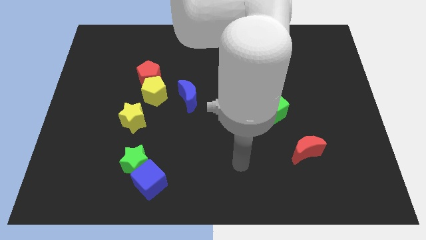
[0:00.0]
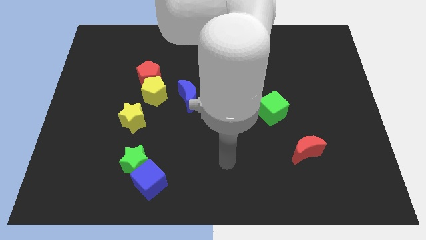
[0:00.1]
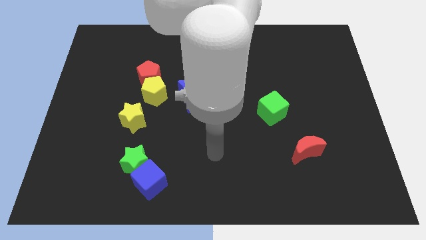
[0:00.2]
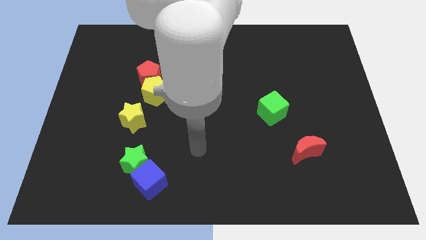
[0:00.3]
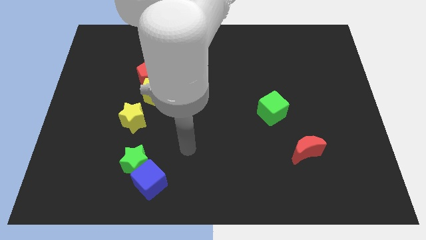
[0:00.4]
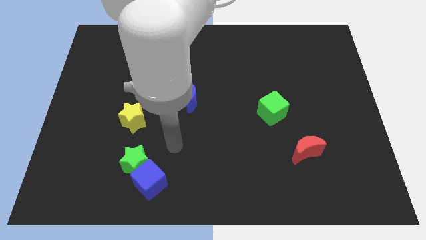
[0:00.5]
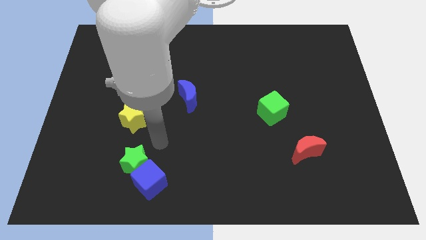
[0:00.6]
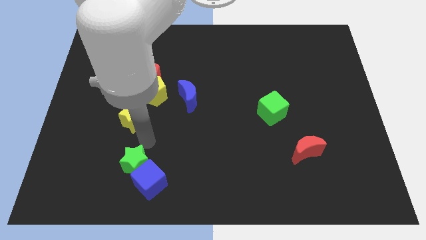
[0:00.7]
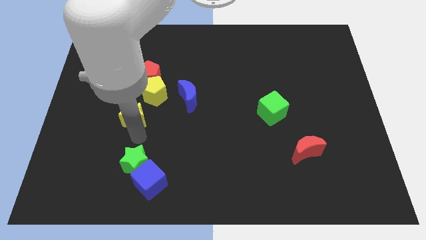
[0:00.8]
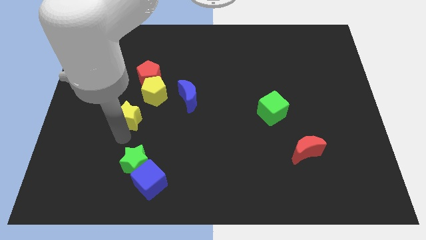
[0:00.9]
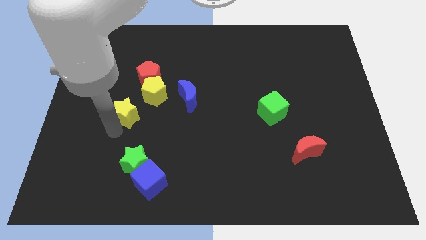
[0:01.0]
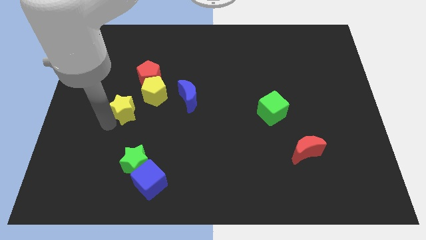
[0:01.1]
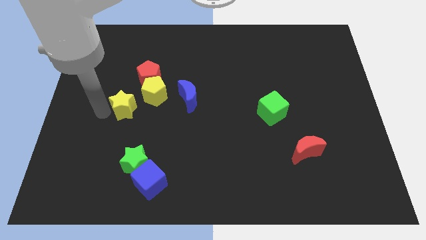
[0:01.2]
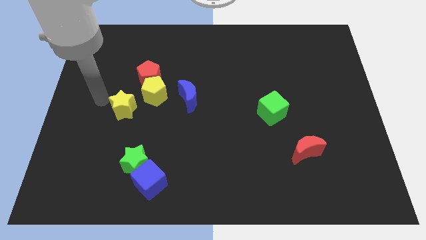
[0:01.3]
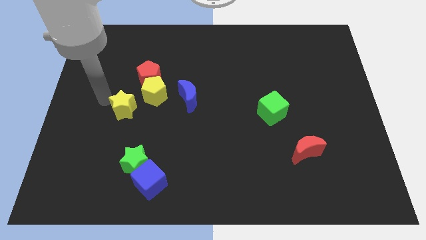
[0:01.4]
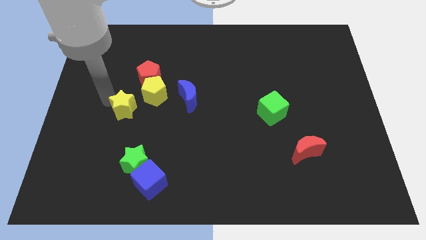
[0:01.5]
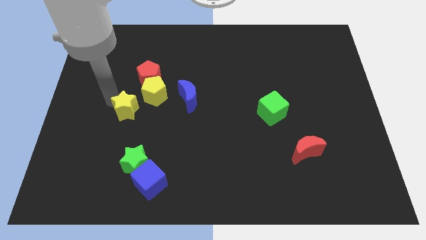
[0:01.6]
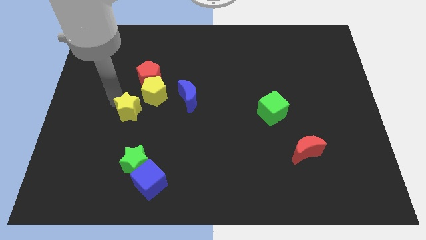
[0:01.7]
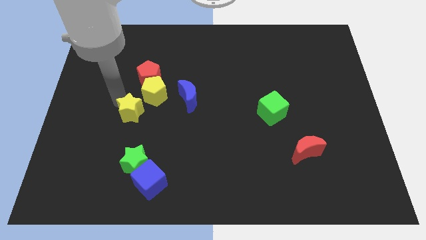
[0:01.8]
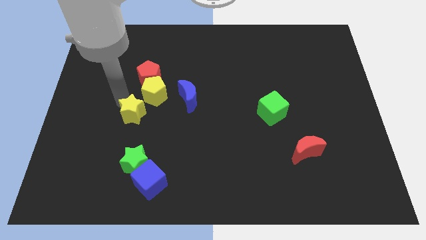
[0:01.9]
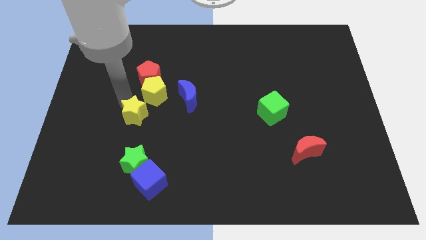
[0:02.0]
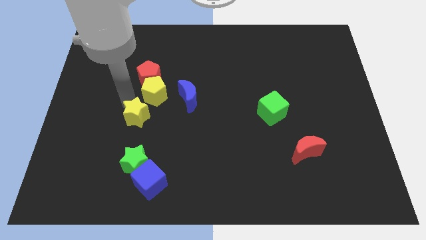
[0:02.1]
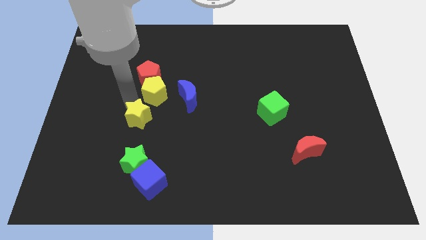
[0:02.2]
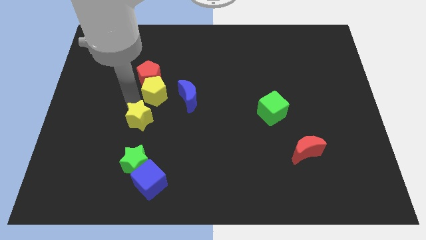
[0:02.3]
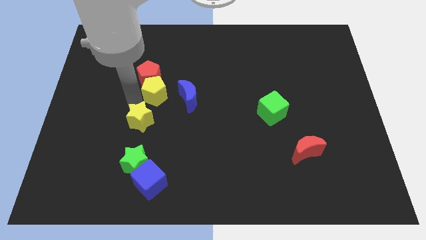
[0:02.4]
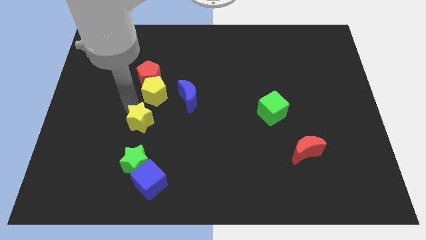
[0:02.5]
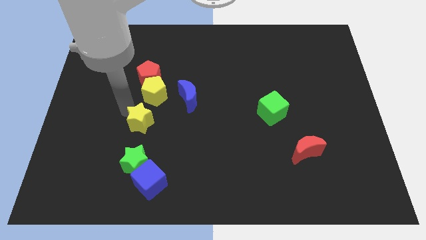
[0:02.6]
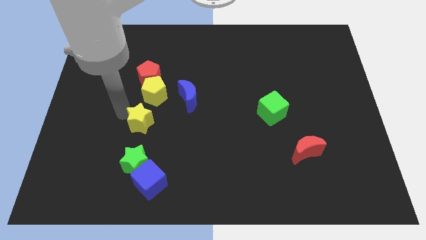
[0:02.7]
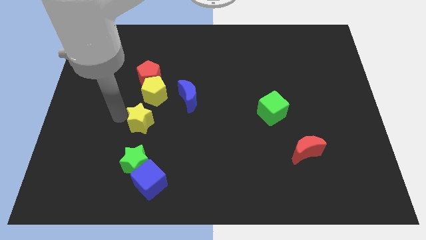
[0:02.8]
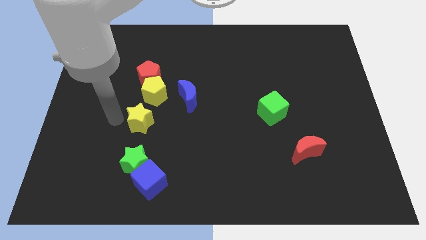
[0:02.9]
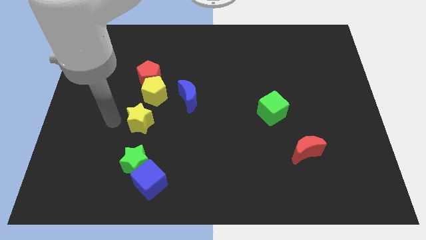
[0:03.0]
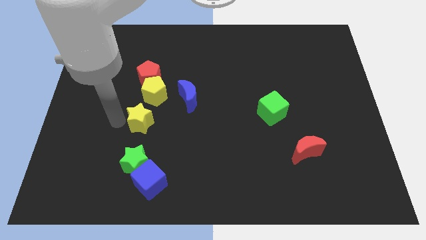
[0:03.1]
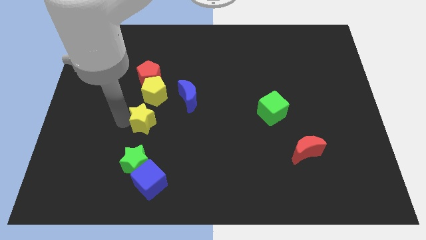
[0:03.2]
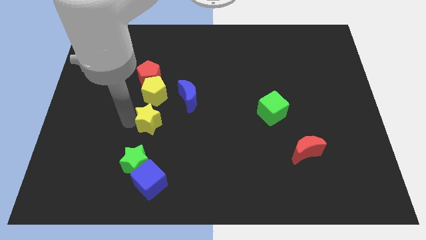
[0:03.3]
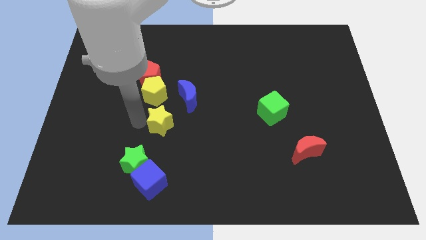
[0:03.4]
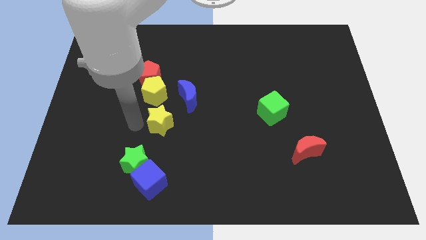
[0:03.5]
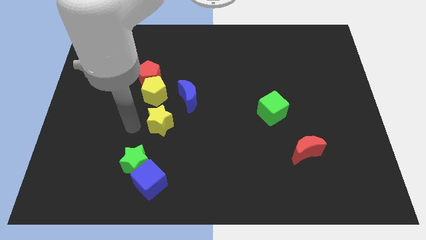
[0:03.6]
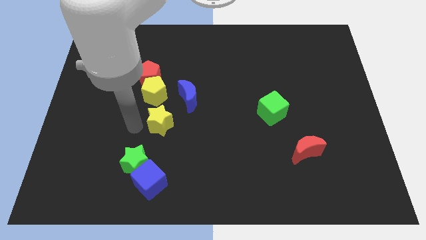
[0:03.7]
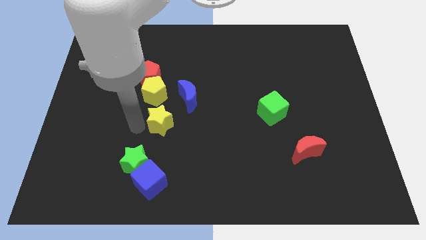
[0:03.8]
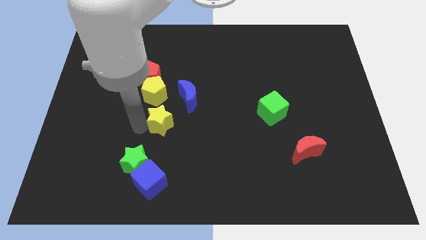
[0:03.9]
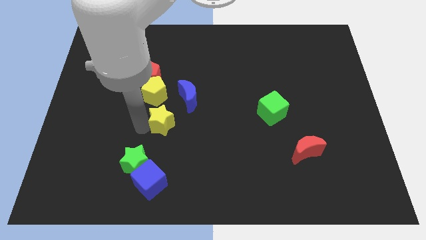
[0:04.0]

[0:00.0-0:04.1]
move the yellow star to the right a bit

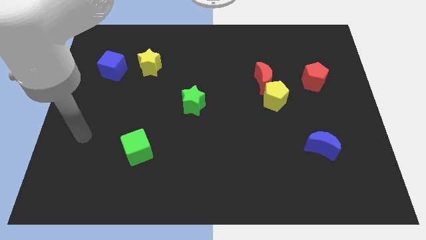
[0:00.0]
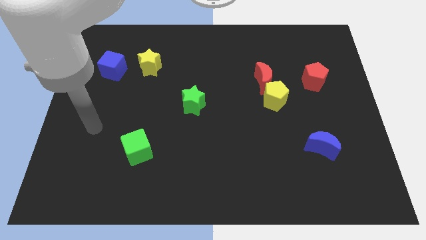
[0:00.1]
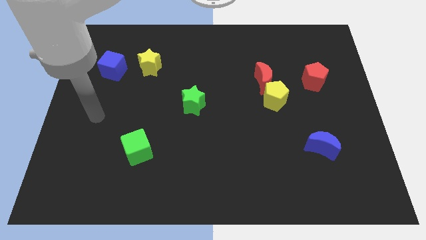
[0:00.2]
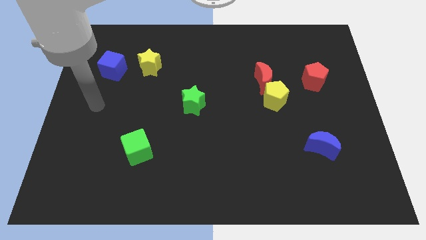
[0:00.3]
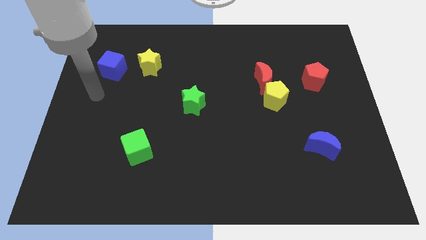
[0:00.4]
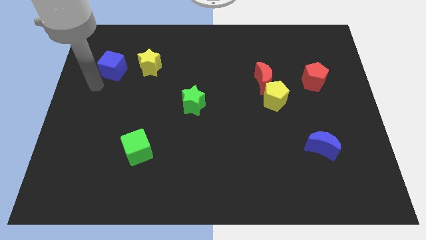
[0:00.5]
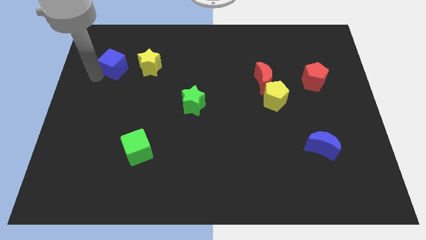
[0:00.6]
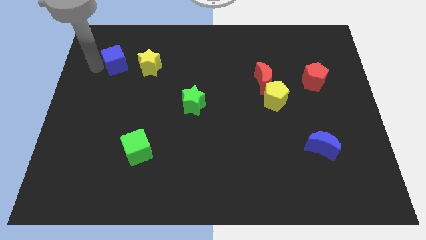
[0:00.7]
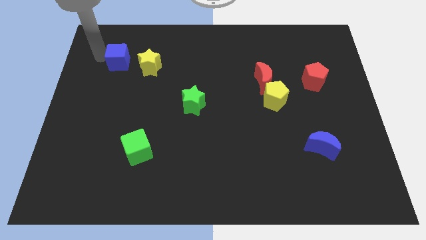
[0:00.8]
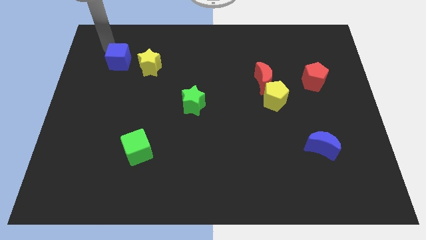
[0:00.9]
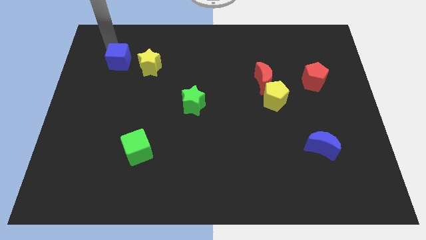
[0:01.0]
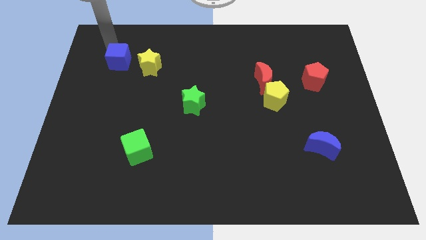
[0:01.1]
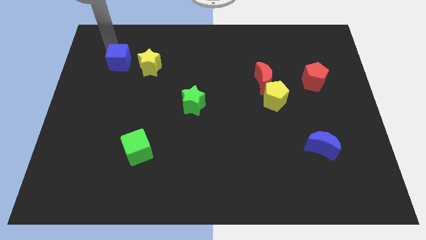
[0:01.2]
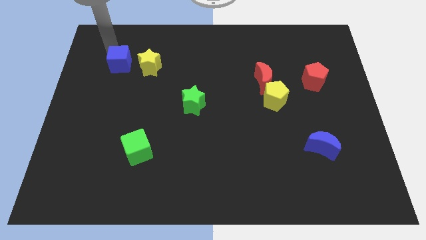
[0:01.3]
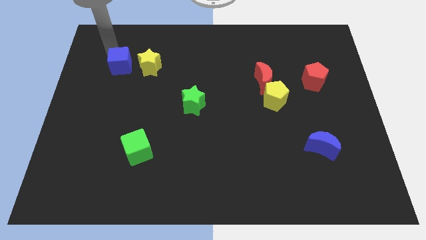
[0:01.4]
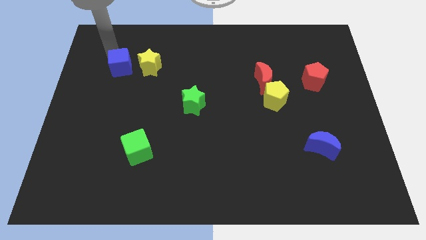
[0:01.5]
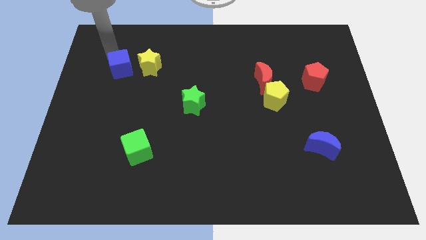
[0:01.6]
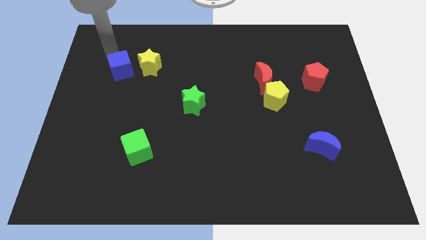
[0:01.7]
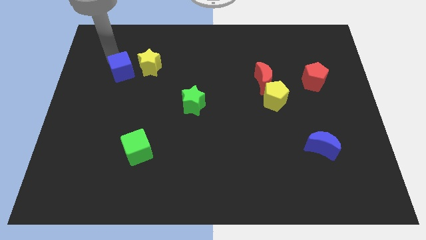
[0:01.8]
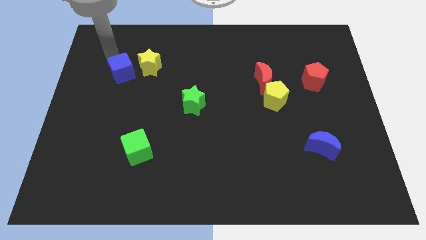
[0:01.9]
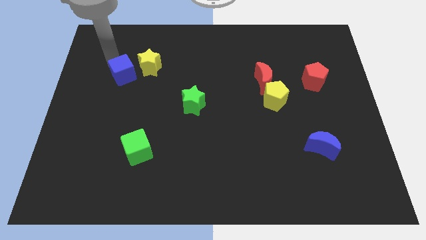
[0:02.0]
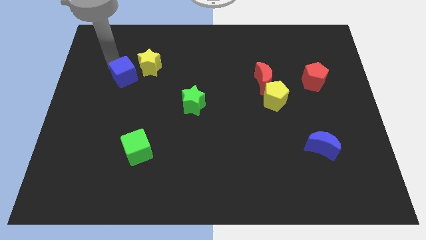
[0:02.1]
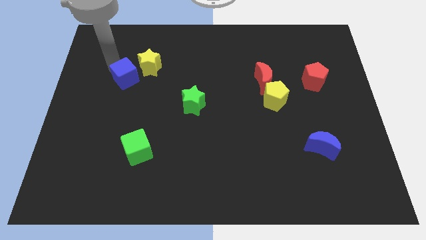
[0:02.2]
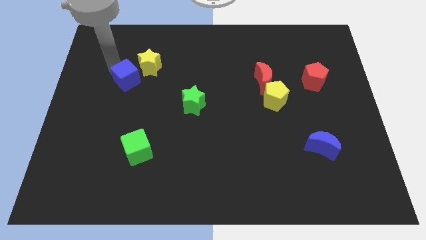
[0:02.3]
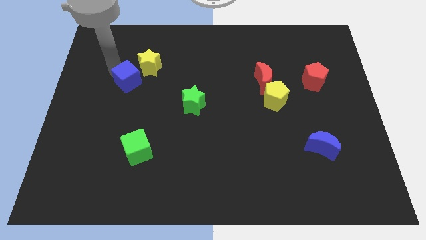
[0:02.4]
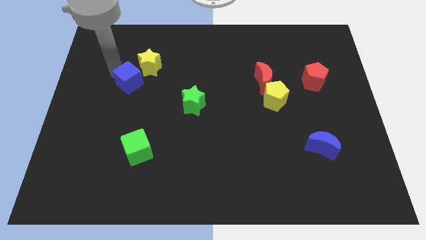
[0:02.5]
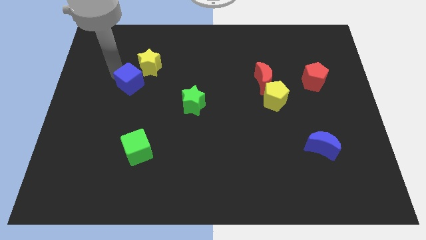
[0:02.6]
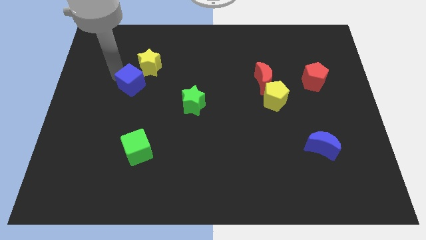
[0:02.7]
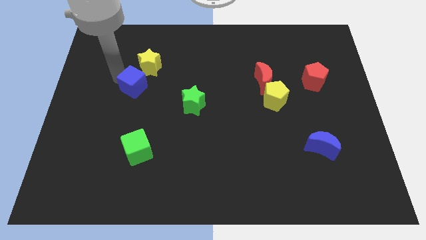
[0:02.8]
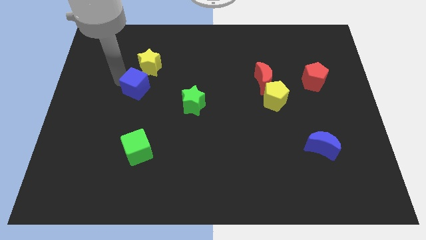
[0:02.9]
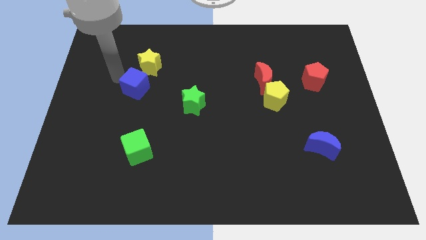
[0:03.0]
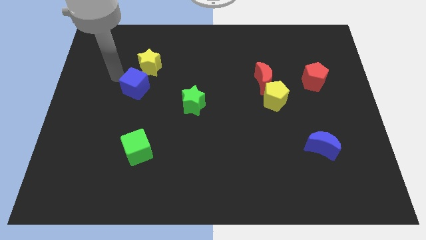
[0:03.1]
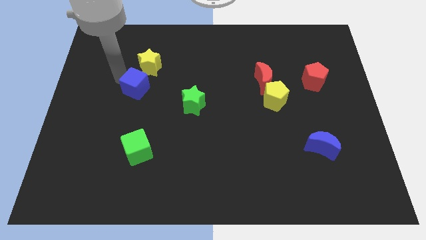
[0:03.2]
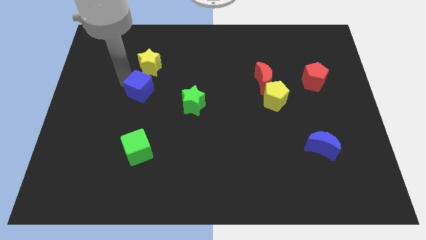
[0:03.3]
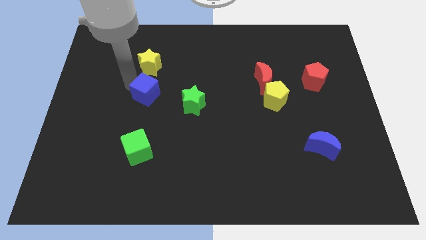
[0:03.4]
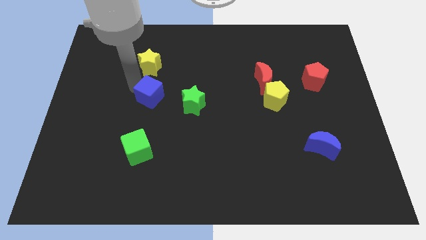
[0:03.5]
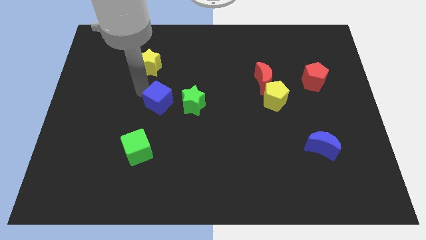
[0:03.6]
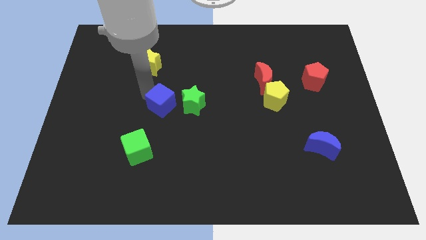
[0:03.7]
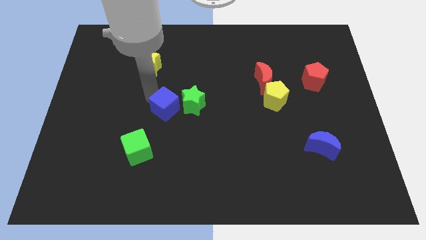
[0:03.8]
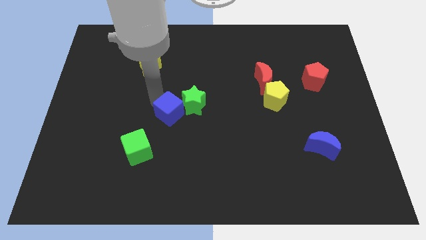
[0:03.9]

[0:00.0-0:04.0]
slide the blue cube diagonally downwards and right
